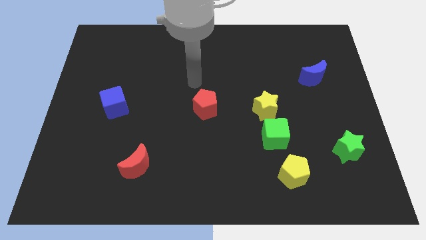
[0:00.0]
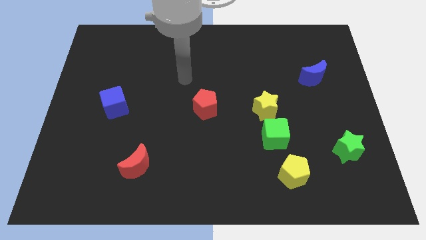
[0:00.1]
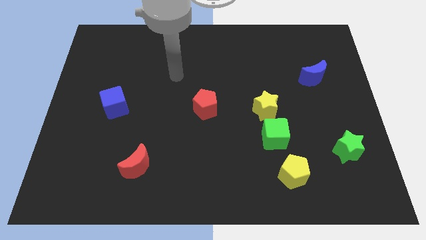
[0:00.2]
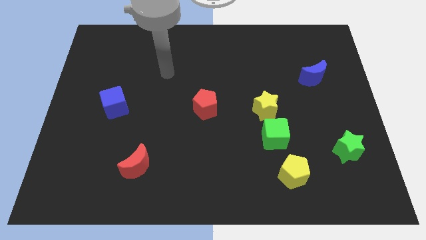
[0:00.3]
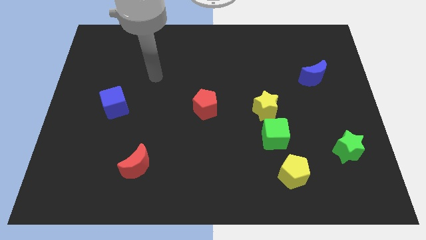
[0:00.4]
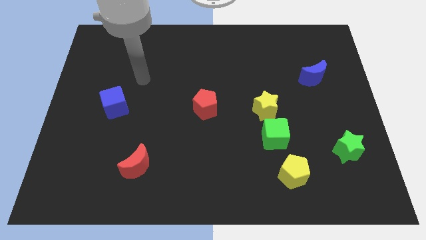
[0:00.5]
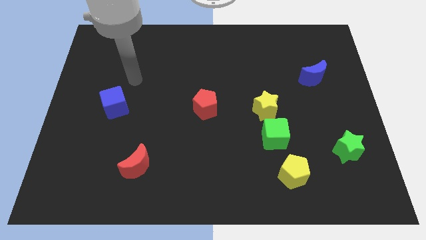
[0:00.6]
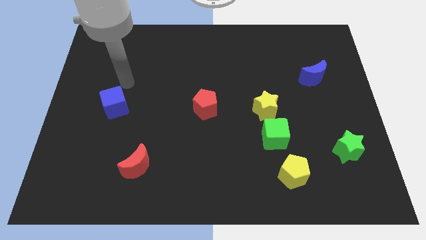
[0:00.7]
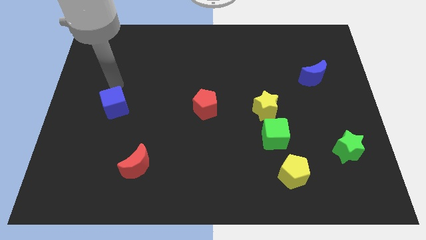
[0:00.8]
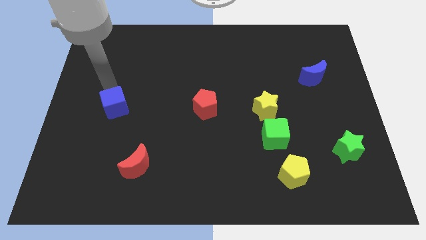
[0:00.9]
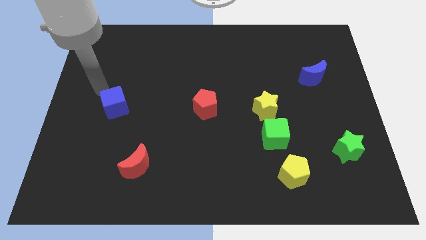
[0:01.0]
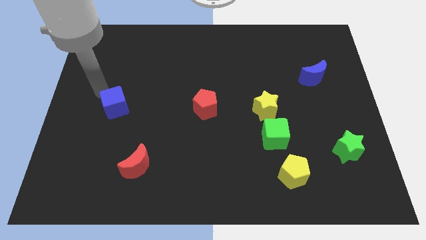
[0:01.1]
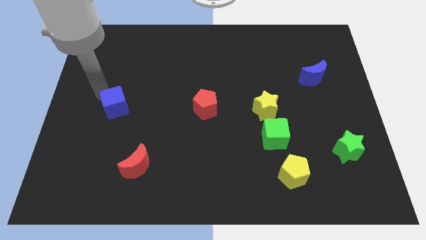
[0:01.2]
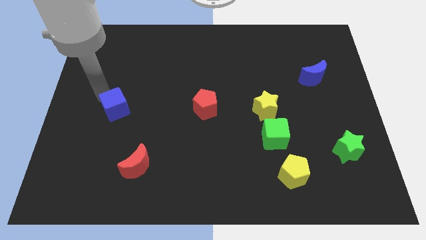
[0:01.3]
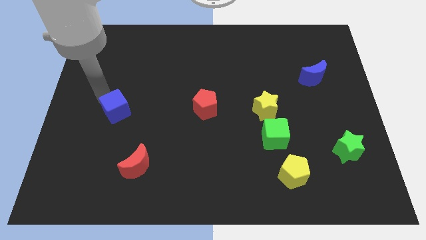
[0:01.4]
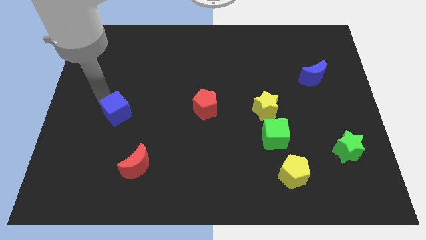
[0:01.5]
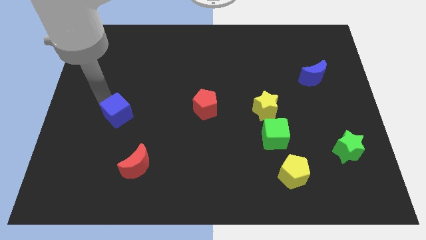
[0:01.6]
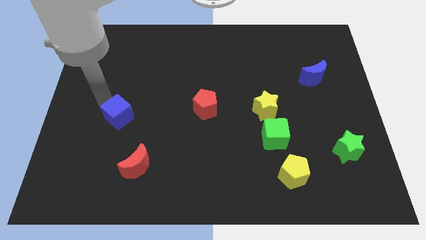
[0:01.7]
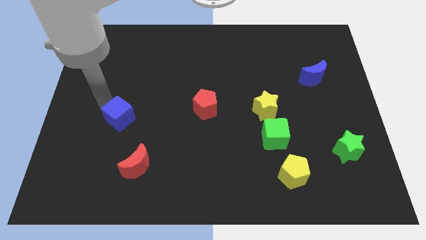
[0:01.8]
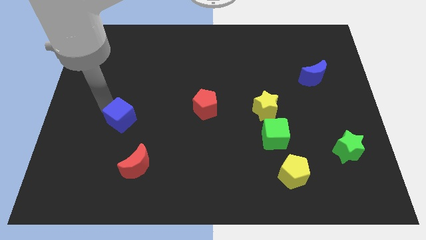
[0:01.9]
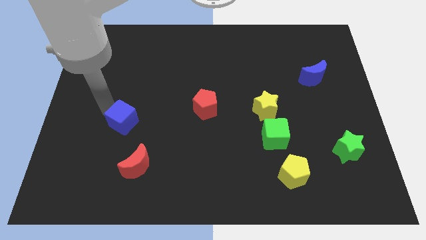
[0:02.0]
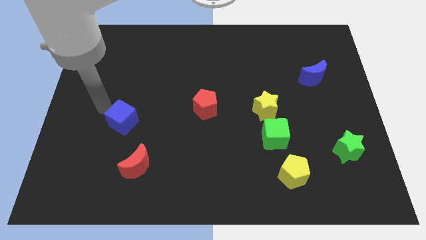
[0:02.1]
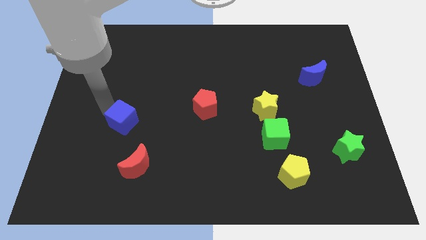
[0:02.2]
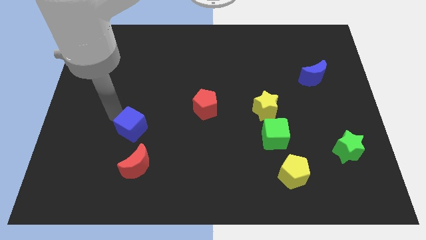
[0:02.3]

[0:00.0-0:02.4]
push the blue cube downwards and then right slightly

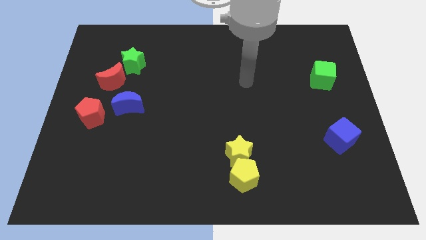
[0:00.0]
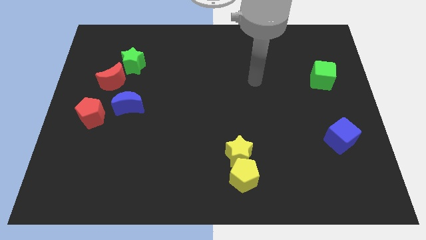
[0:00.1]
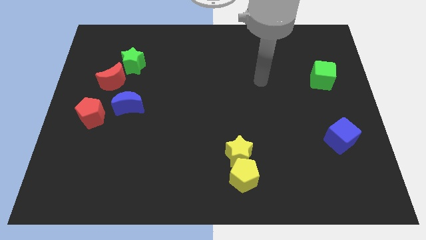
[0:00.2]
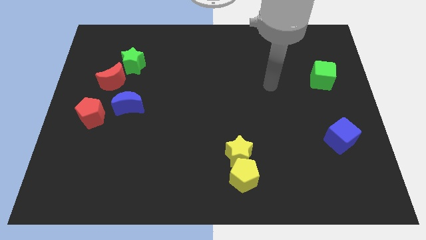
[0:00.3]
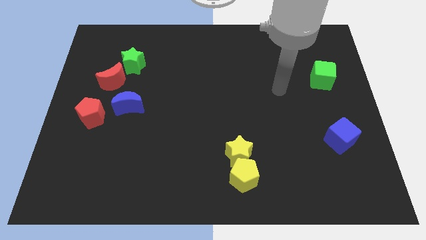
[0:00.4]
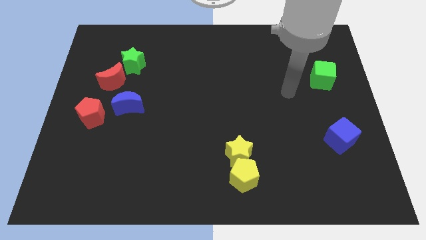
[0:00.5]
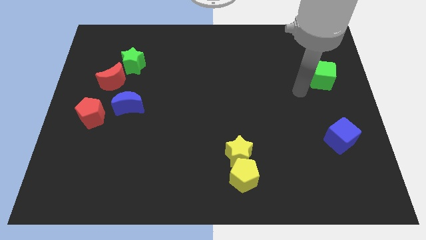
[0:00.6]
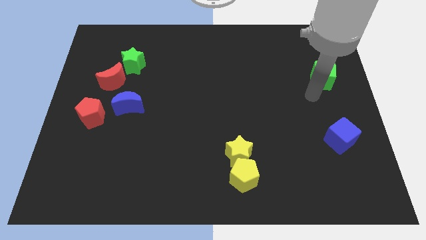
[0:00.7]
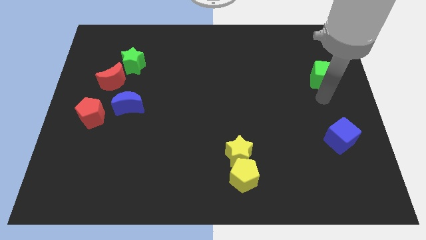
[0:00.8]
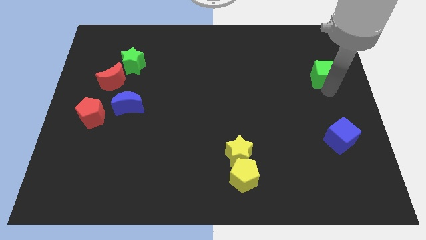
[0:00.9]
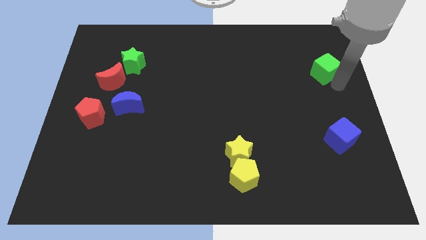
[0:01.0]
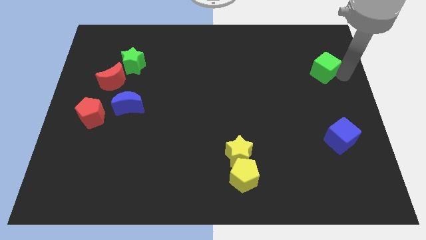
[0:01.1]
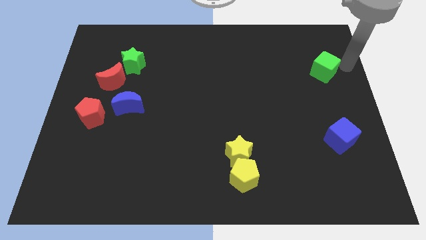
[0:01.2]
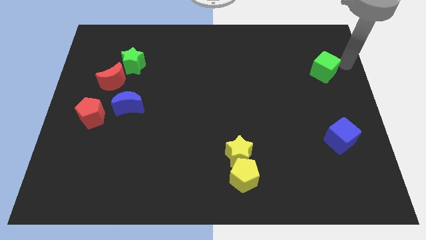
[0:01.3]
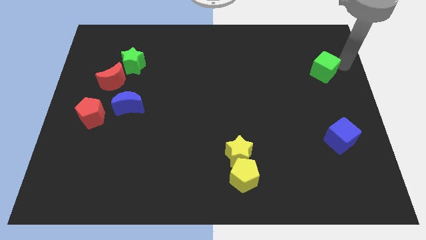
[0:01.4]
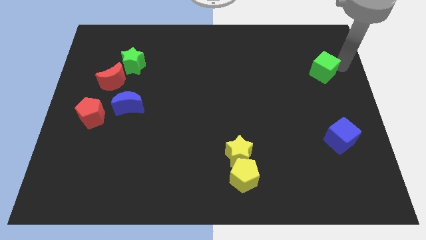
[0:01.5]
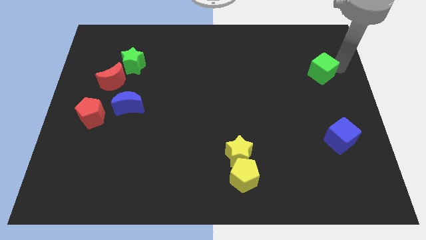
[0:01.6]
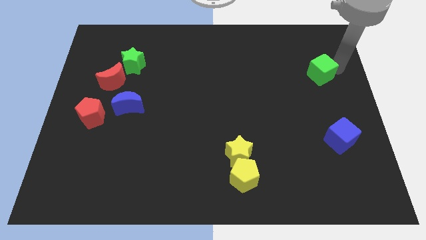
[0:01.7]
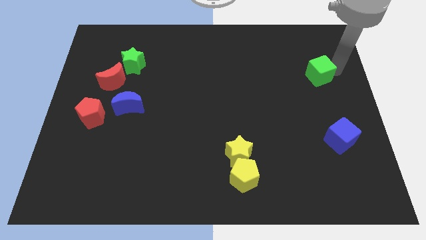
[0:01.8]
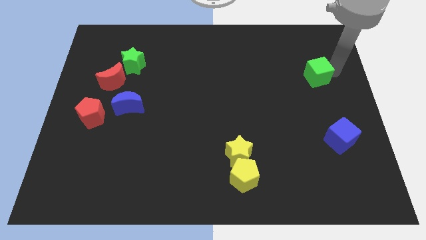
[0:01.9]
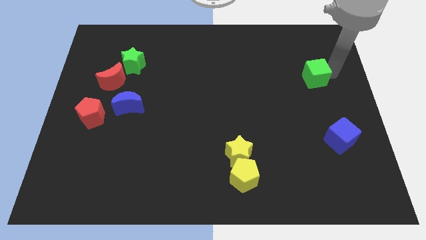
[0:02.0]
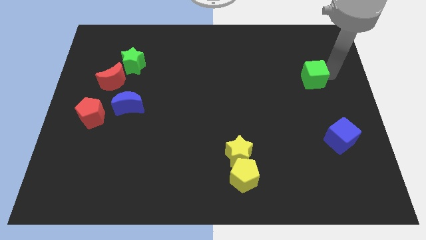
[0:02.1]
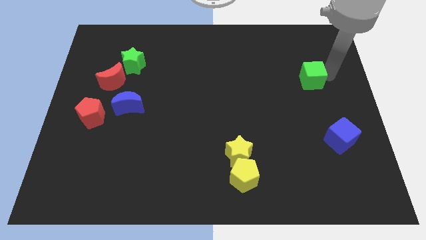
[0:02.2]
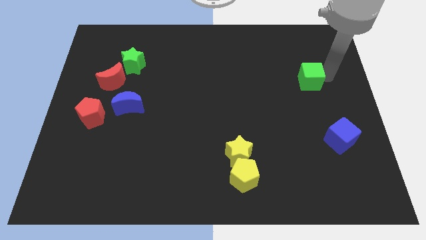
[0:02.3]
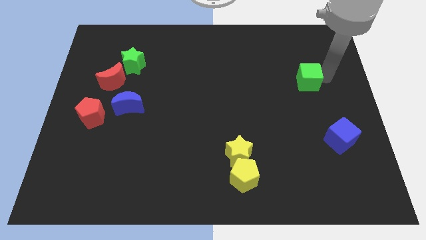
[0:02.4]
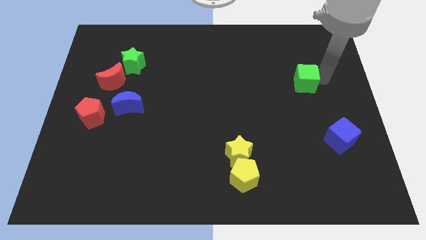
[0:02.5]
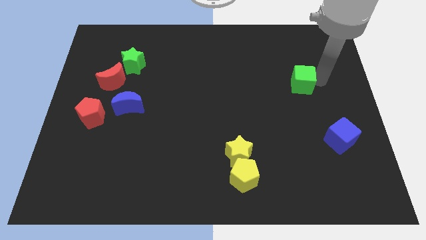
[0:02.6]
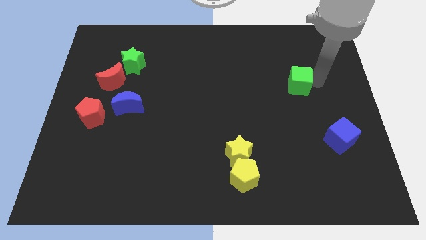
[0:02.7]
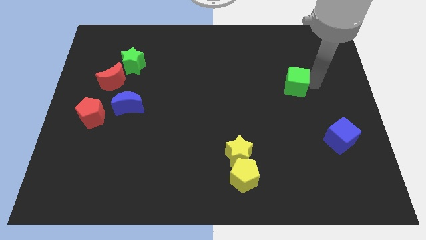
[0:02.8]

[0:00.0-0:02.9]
slide the green cube to the left a bit

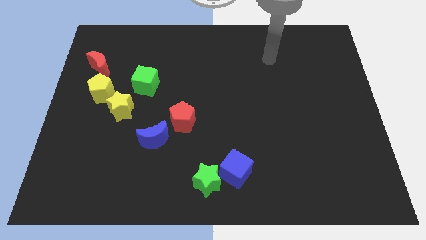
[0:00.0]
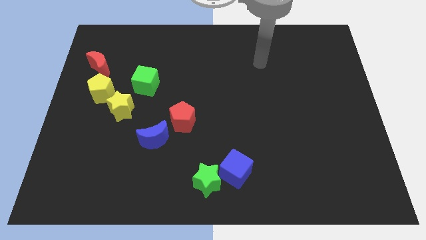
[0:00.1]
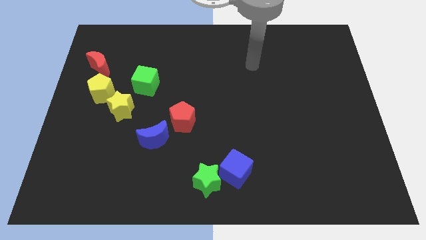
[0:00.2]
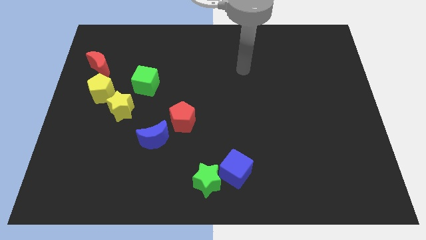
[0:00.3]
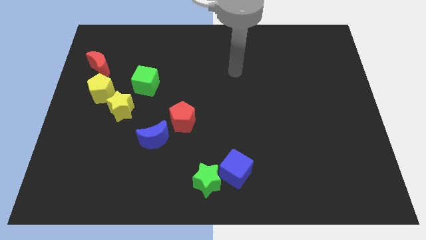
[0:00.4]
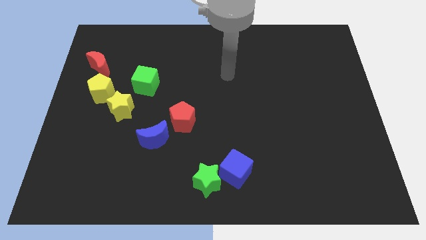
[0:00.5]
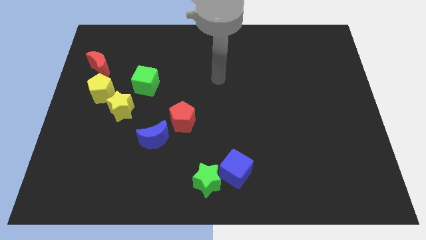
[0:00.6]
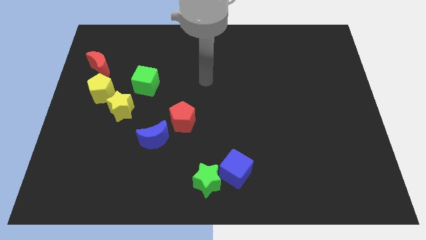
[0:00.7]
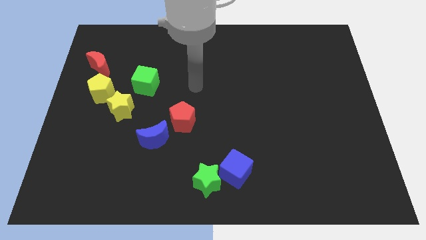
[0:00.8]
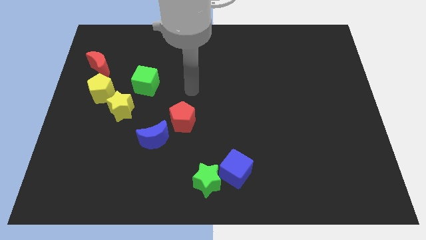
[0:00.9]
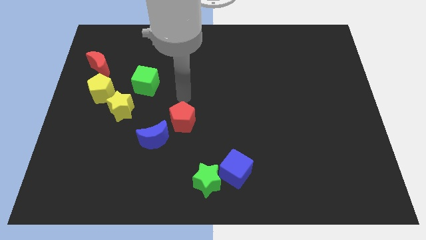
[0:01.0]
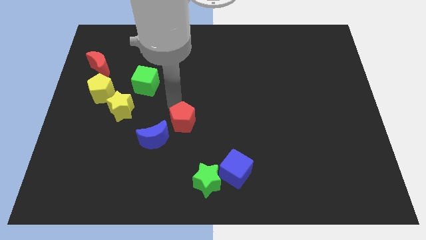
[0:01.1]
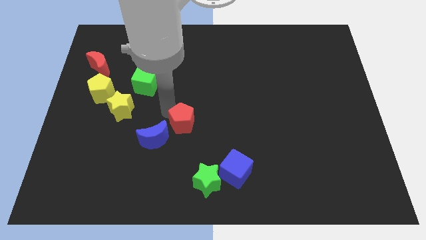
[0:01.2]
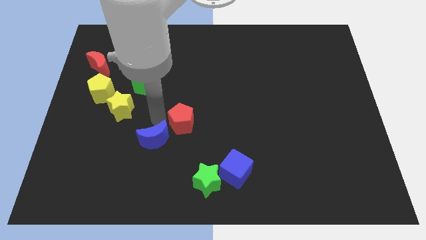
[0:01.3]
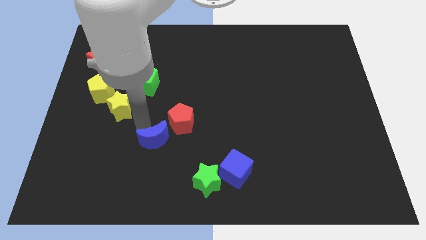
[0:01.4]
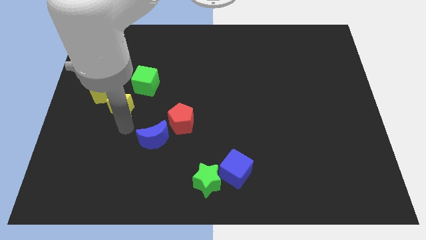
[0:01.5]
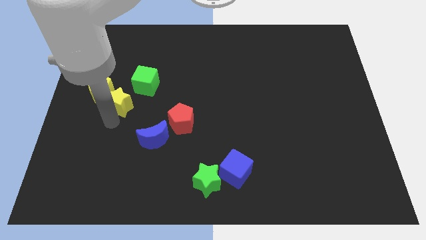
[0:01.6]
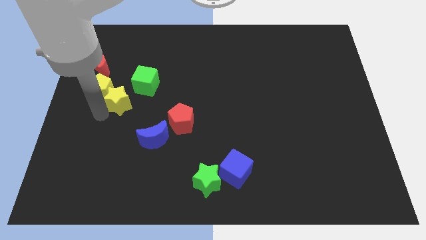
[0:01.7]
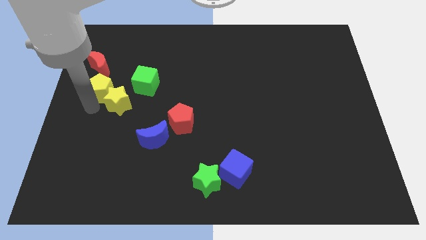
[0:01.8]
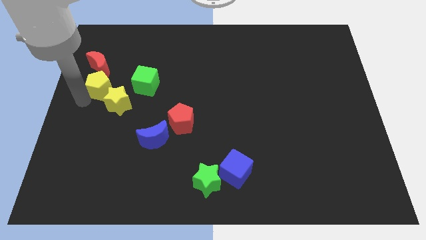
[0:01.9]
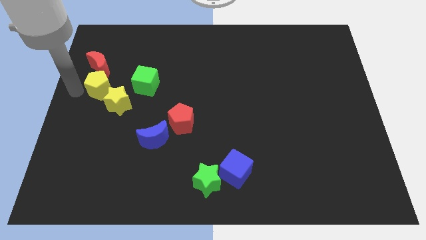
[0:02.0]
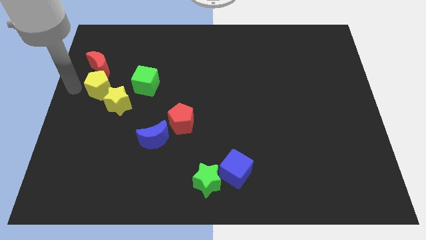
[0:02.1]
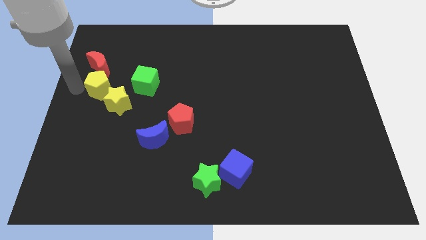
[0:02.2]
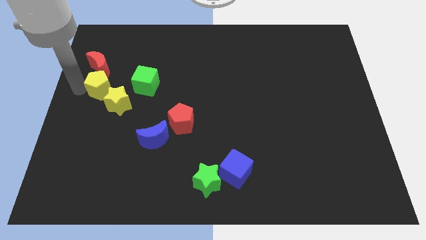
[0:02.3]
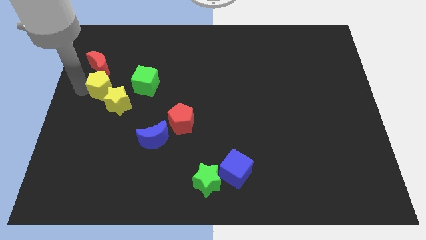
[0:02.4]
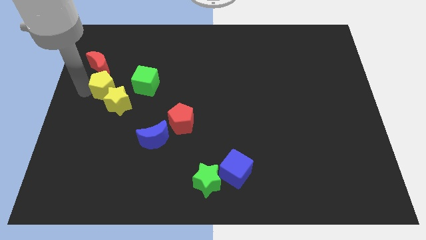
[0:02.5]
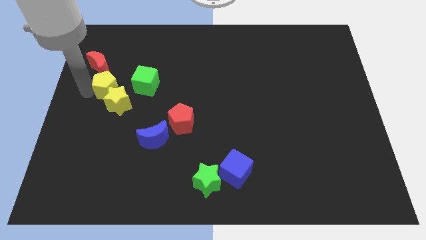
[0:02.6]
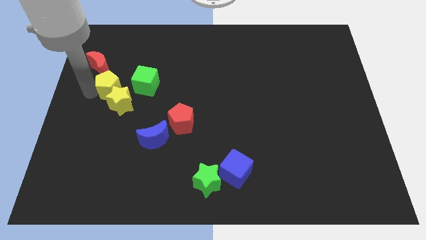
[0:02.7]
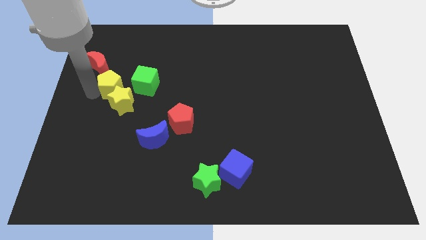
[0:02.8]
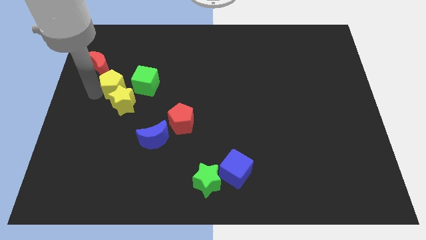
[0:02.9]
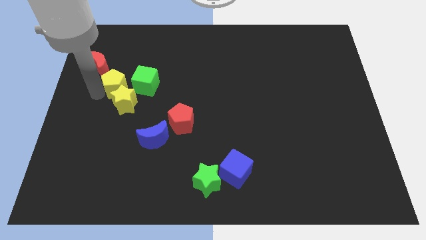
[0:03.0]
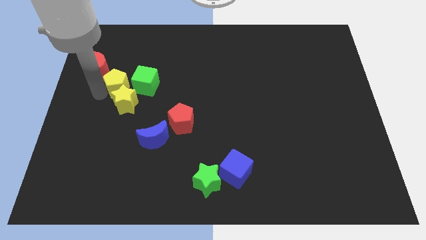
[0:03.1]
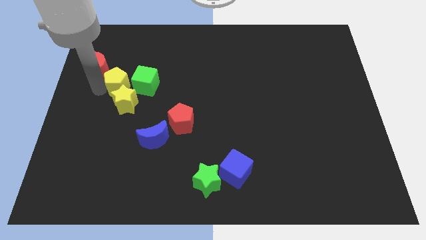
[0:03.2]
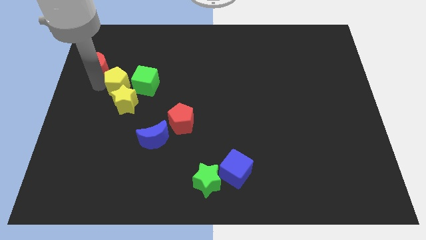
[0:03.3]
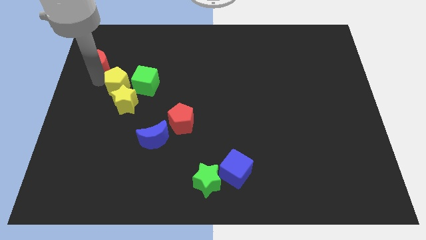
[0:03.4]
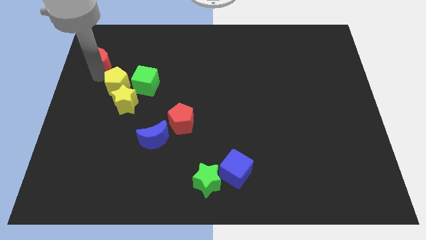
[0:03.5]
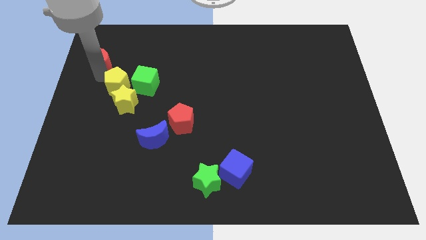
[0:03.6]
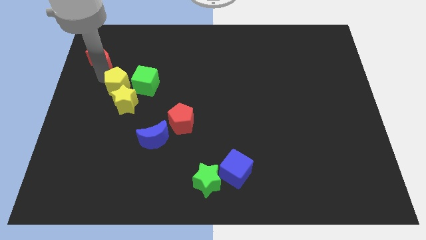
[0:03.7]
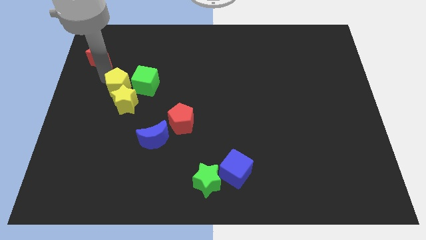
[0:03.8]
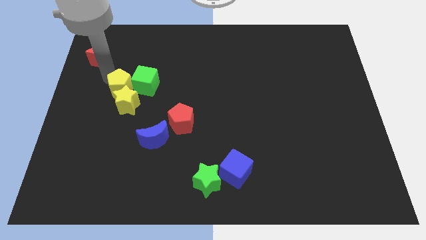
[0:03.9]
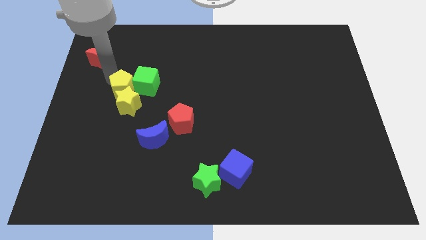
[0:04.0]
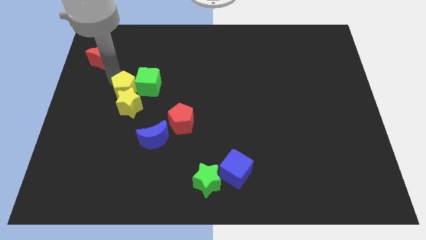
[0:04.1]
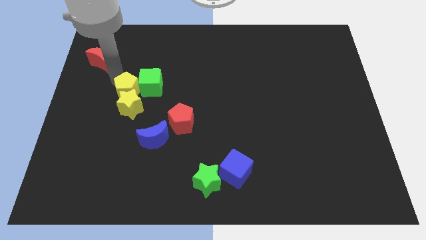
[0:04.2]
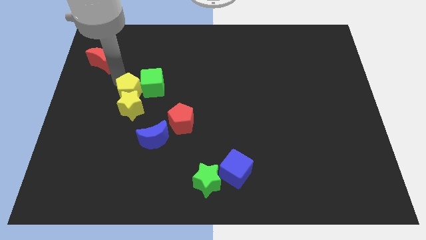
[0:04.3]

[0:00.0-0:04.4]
slide the yellow pentagon to the right slightly
